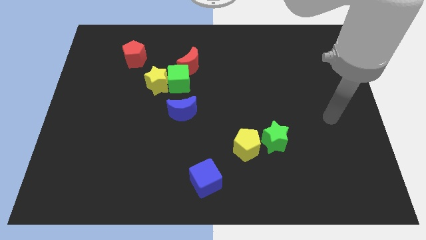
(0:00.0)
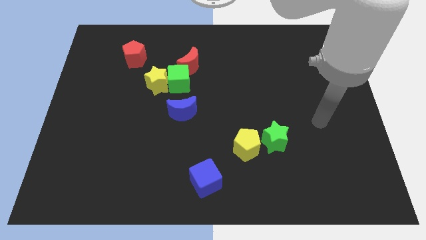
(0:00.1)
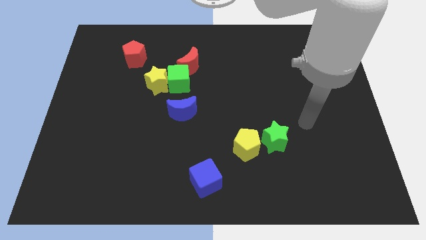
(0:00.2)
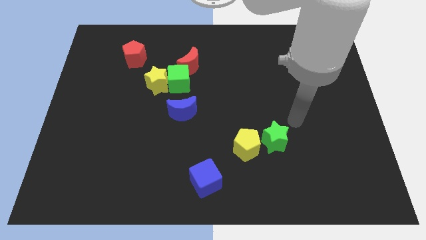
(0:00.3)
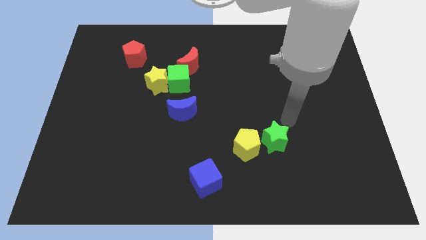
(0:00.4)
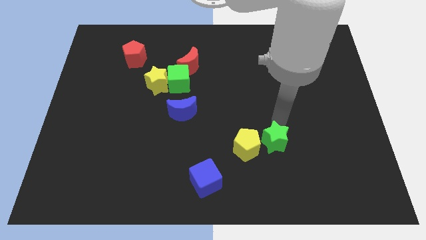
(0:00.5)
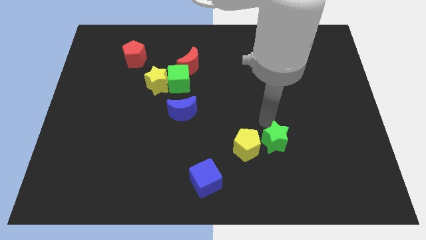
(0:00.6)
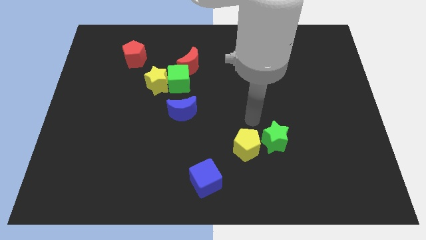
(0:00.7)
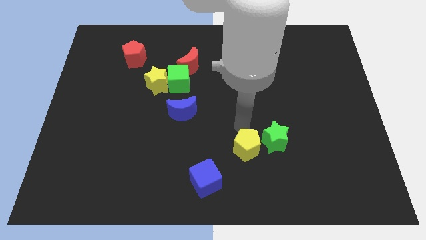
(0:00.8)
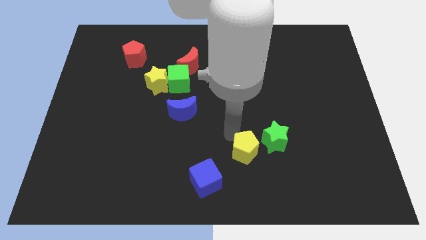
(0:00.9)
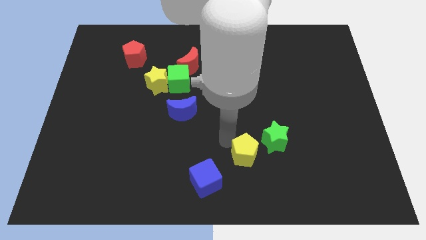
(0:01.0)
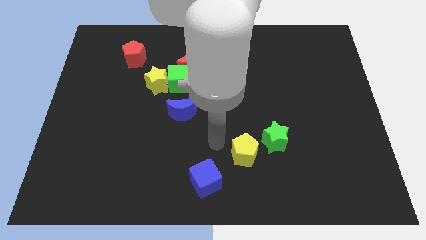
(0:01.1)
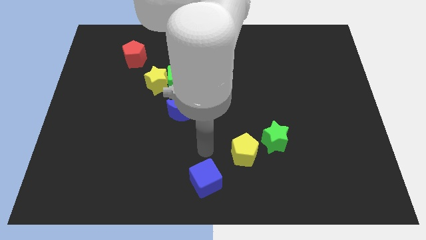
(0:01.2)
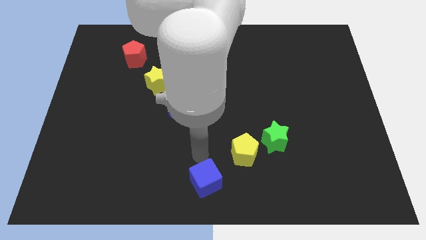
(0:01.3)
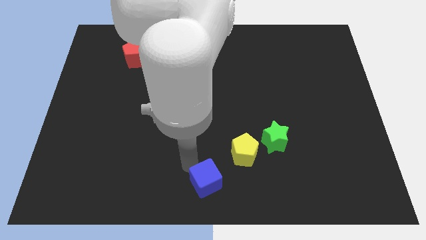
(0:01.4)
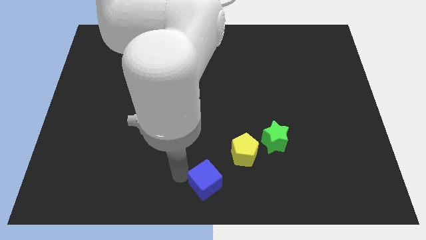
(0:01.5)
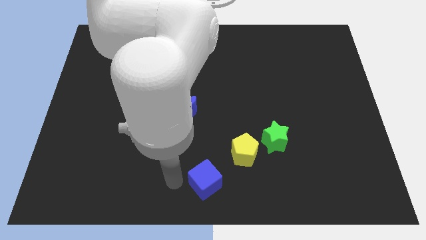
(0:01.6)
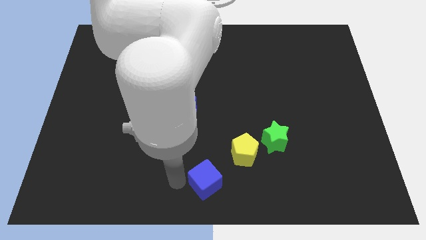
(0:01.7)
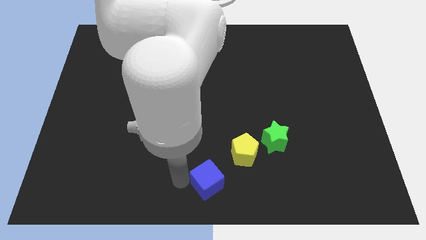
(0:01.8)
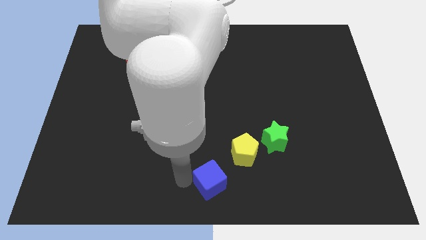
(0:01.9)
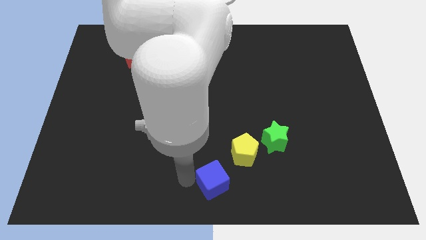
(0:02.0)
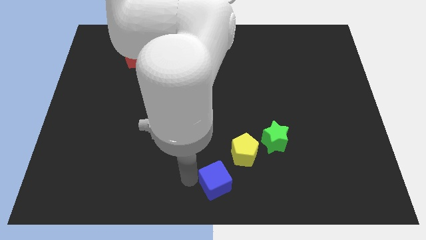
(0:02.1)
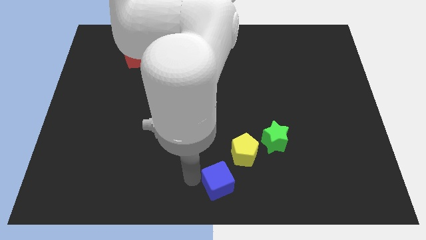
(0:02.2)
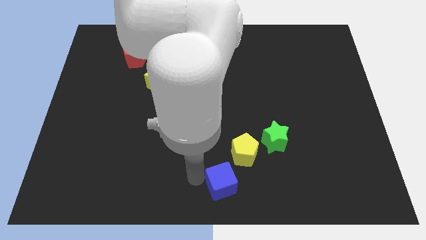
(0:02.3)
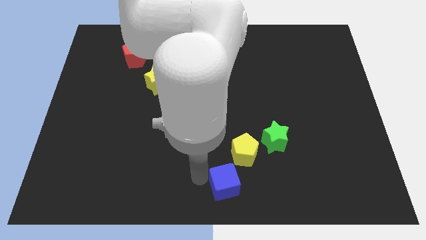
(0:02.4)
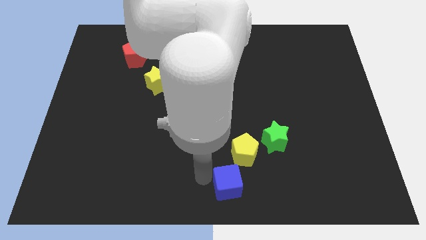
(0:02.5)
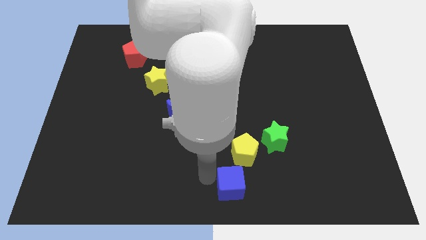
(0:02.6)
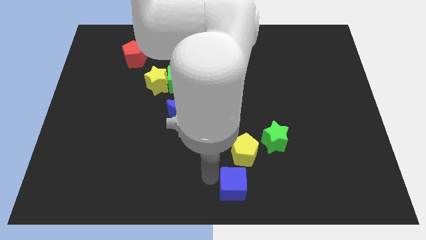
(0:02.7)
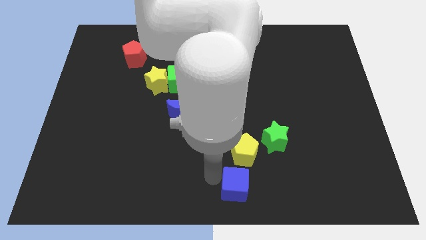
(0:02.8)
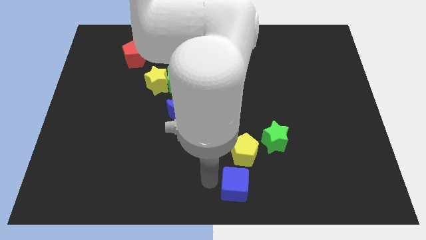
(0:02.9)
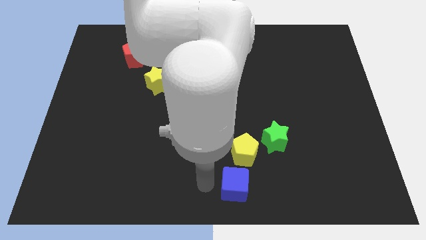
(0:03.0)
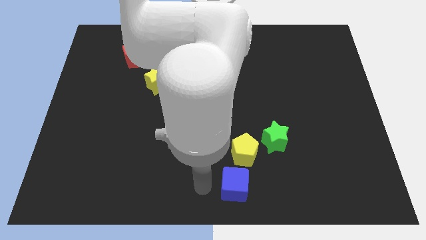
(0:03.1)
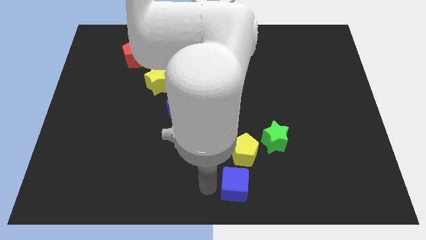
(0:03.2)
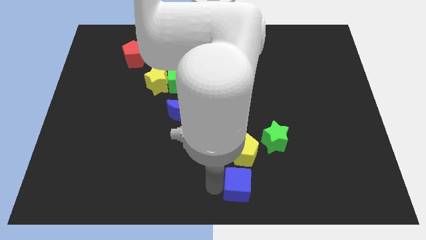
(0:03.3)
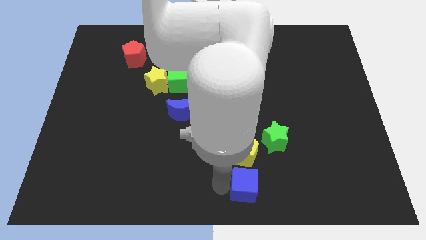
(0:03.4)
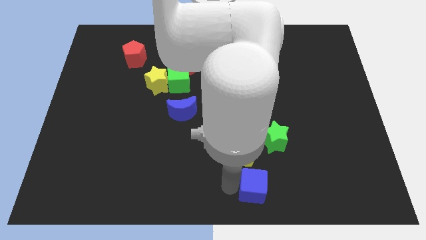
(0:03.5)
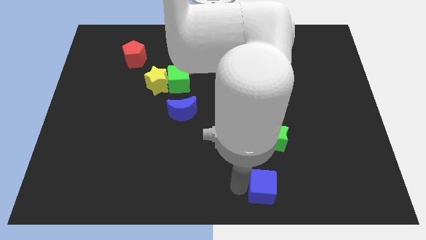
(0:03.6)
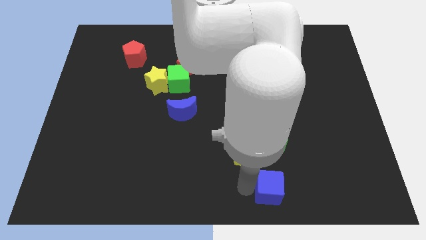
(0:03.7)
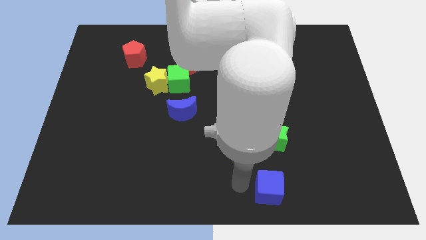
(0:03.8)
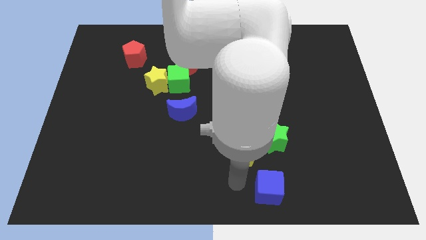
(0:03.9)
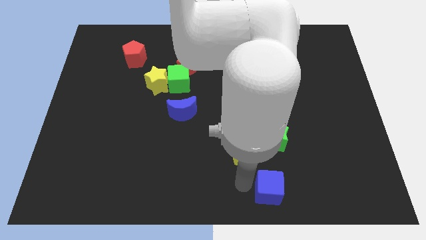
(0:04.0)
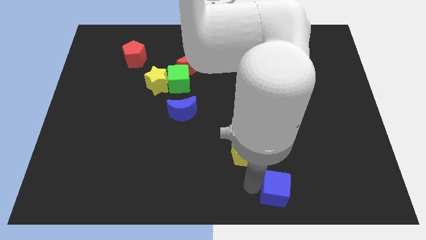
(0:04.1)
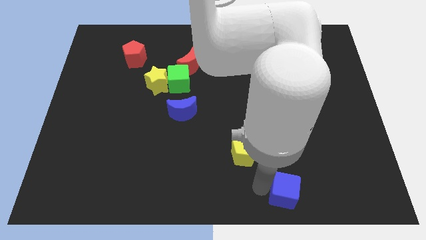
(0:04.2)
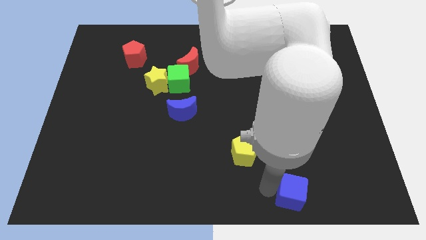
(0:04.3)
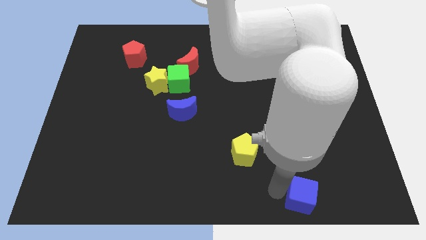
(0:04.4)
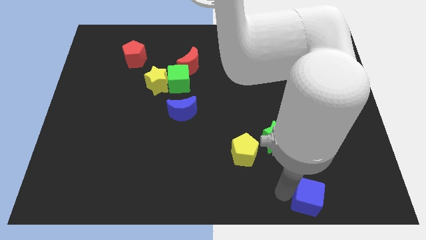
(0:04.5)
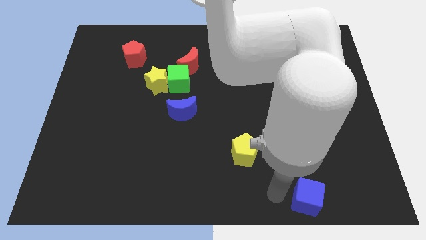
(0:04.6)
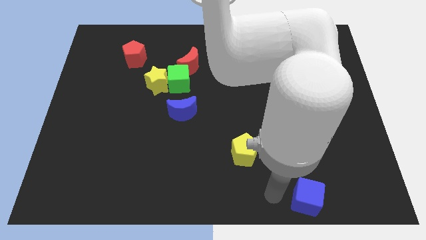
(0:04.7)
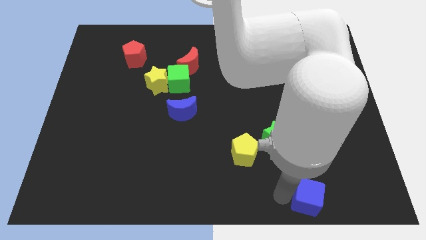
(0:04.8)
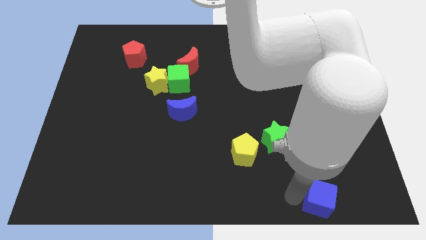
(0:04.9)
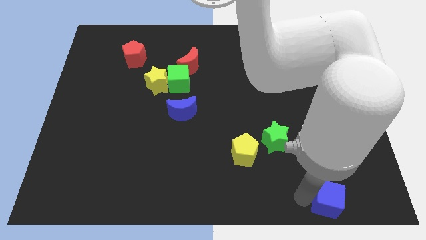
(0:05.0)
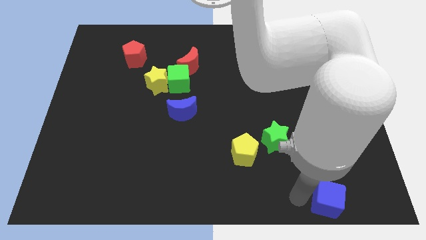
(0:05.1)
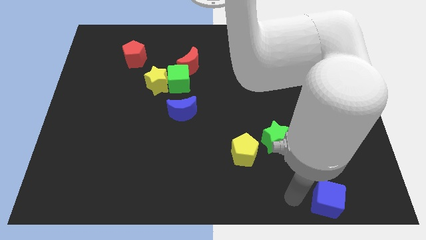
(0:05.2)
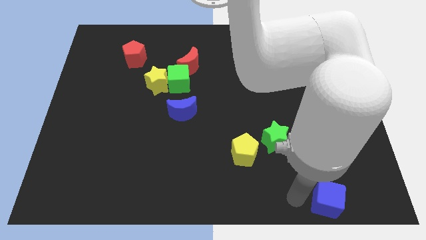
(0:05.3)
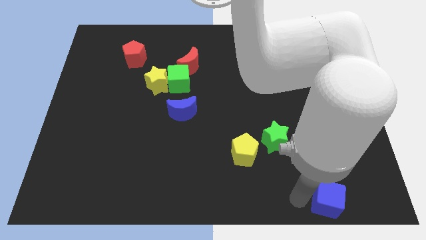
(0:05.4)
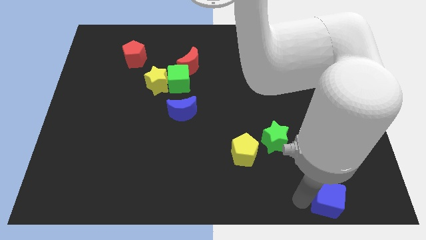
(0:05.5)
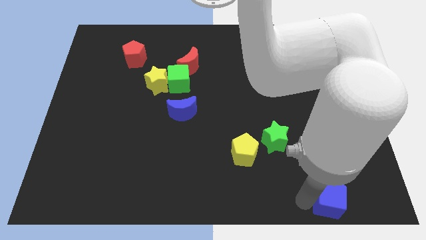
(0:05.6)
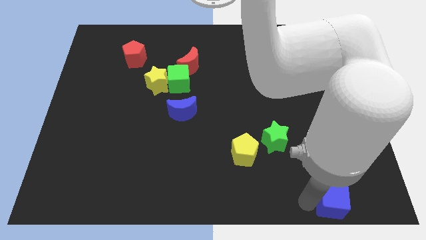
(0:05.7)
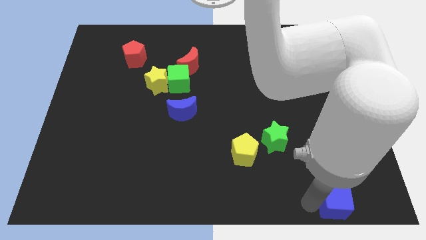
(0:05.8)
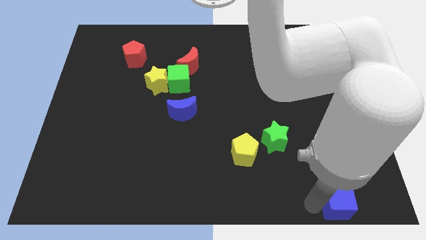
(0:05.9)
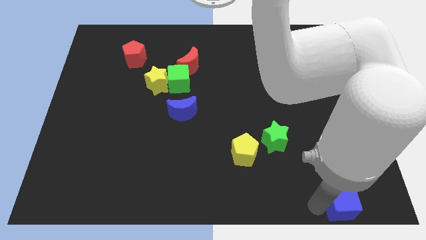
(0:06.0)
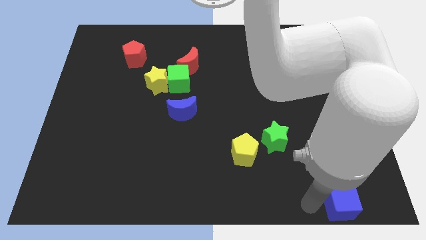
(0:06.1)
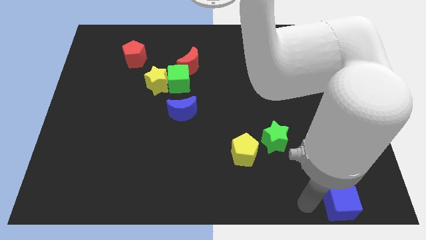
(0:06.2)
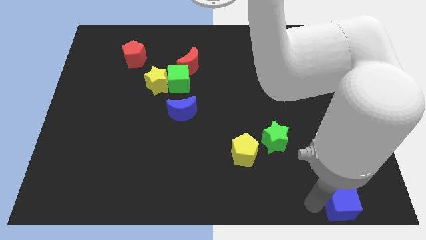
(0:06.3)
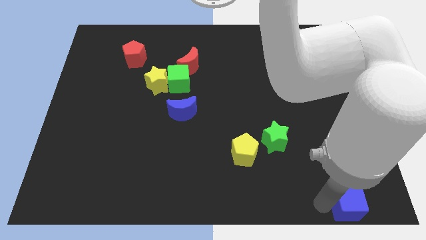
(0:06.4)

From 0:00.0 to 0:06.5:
slide the blue cube to the lower right corner

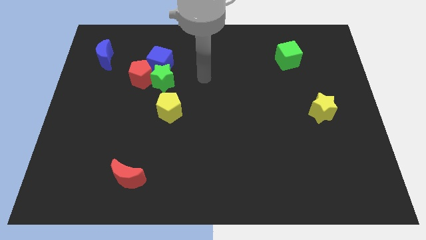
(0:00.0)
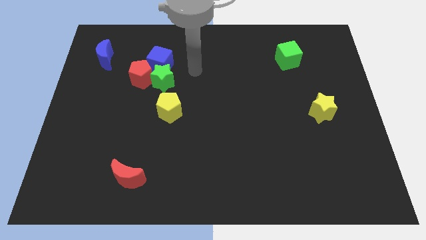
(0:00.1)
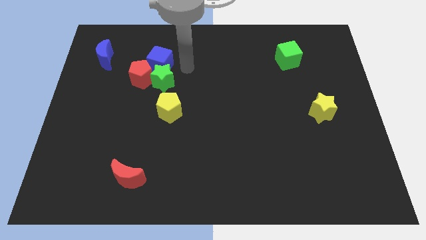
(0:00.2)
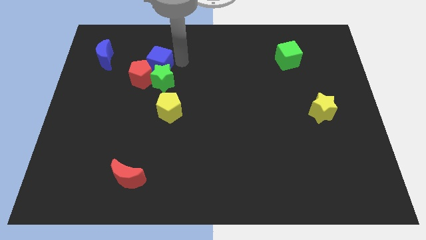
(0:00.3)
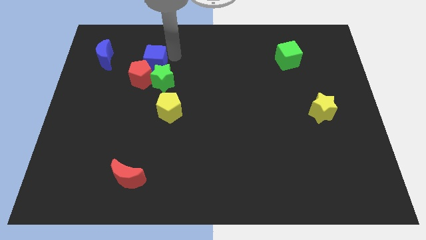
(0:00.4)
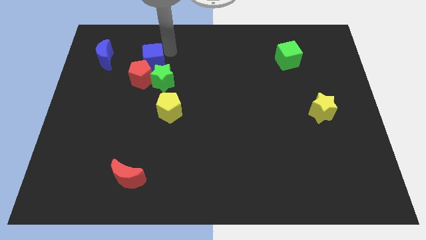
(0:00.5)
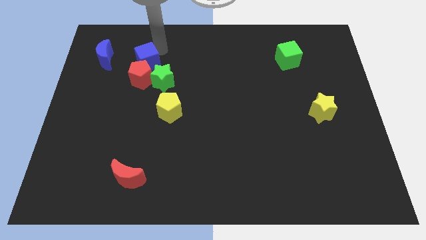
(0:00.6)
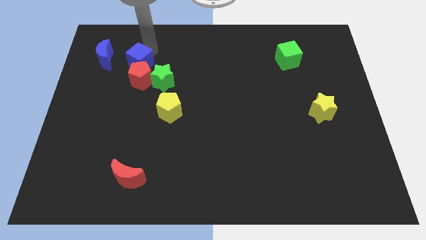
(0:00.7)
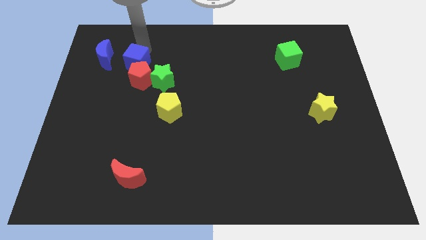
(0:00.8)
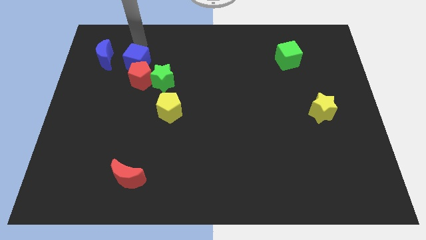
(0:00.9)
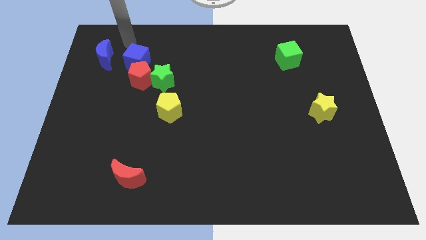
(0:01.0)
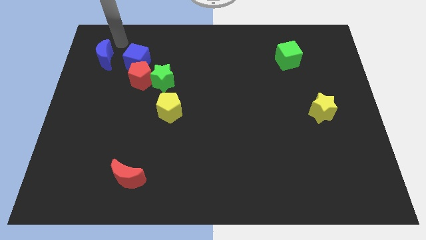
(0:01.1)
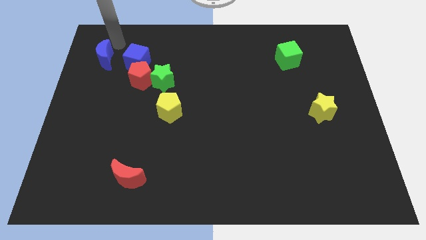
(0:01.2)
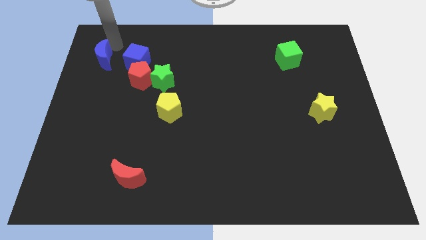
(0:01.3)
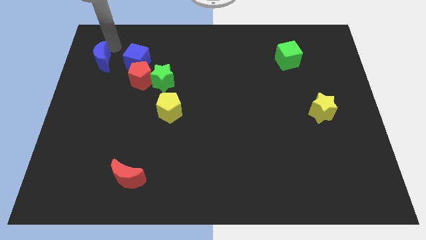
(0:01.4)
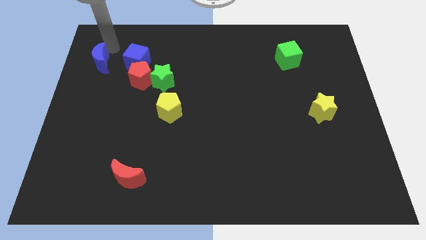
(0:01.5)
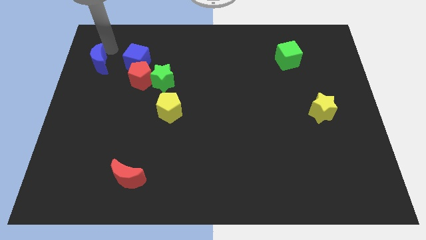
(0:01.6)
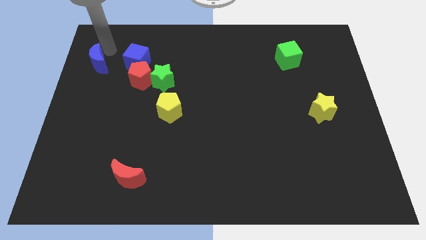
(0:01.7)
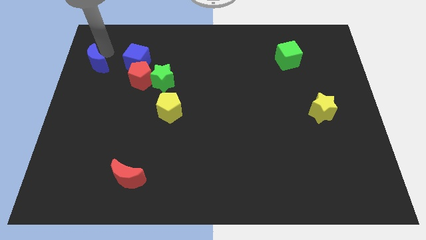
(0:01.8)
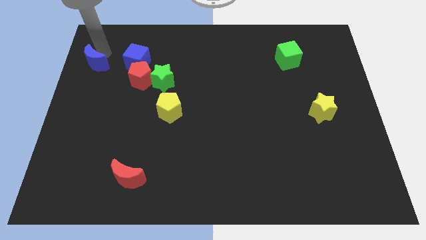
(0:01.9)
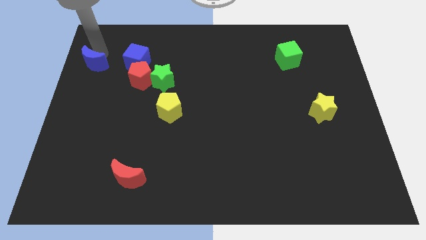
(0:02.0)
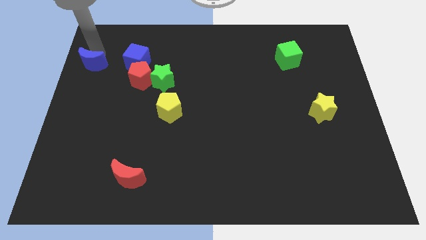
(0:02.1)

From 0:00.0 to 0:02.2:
push the blue moon to the center left
